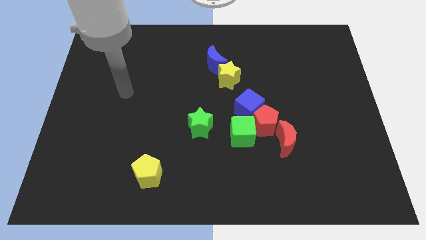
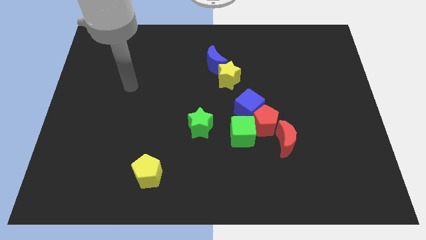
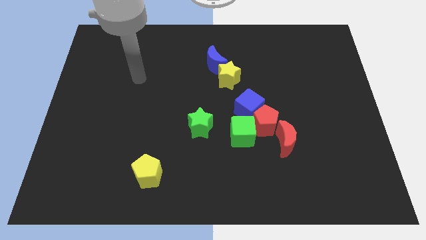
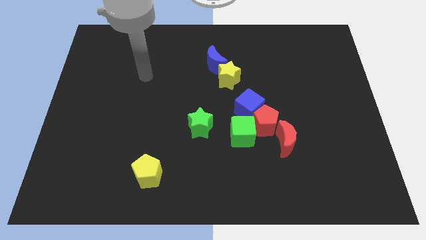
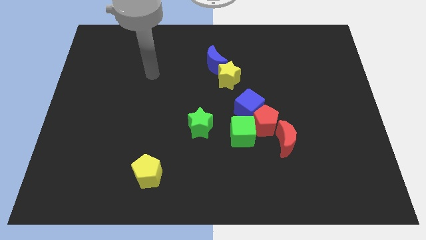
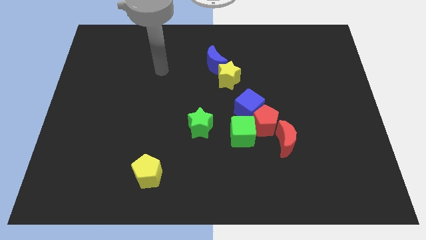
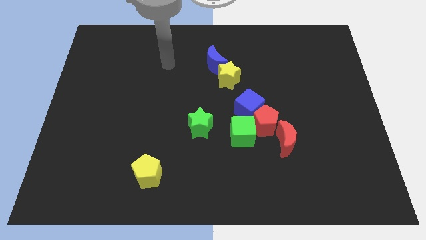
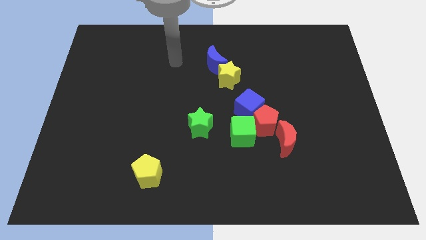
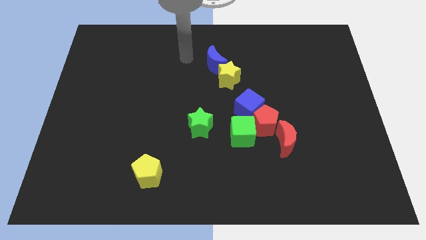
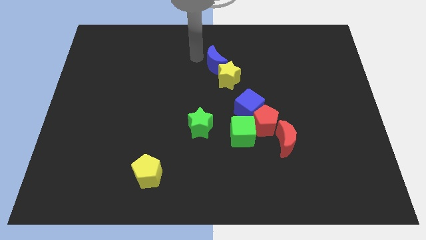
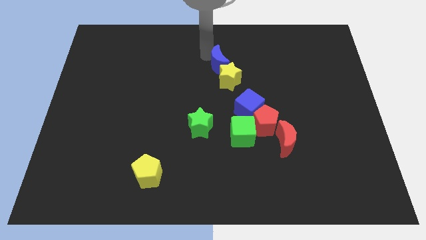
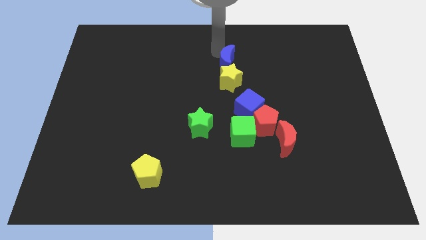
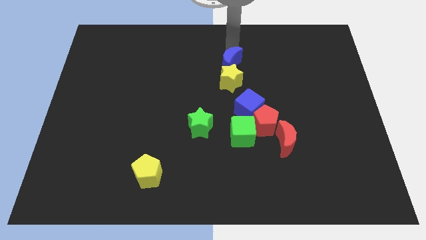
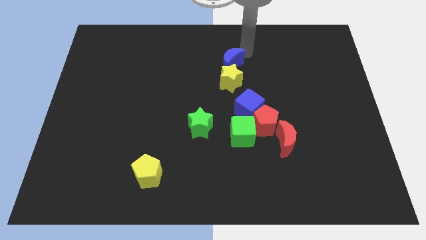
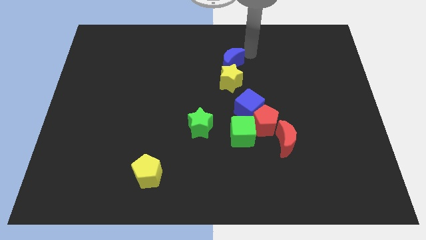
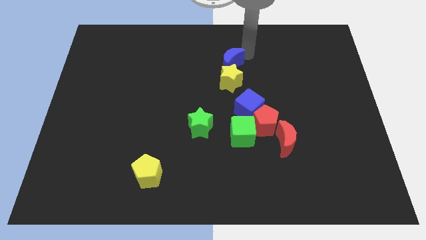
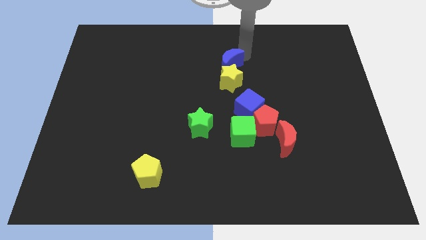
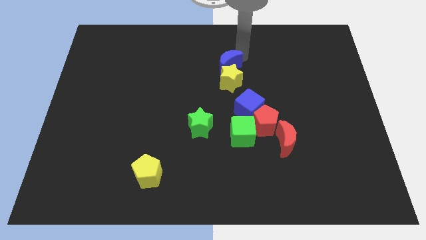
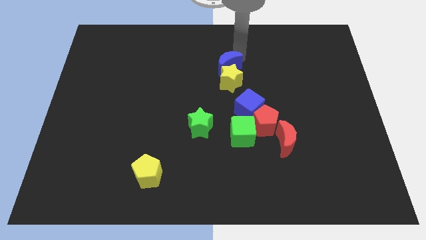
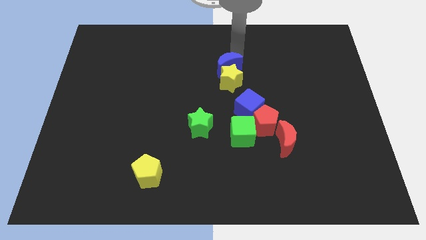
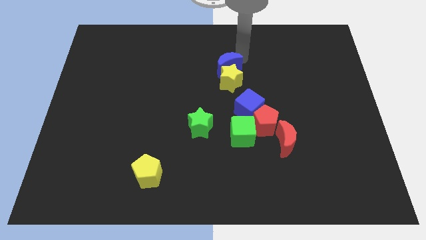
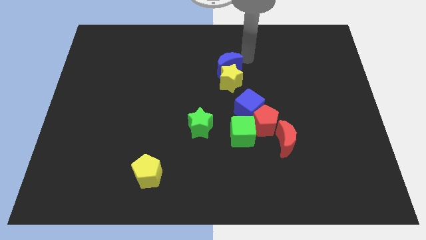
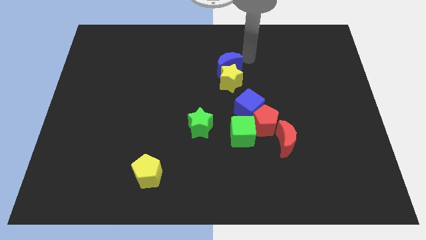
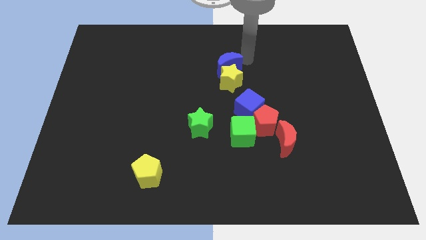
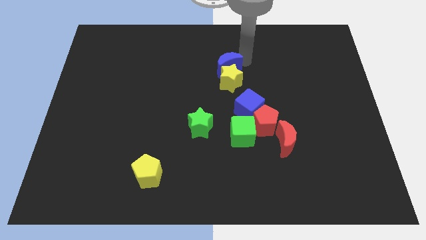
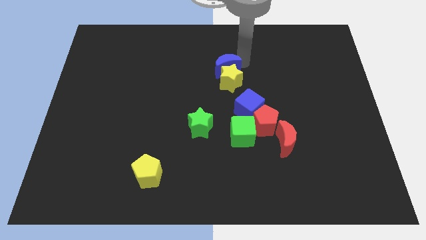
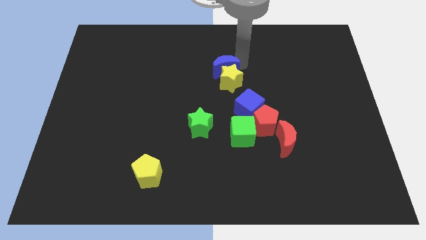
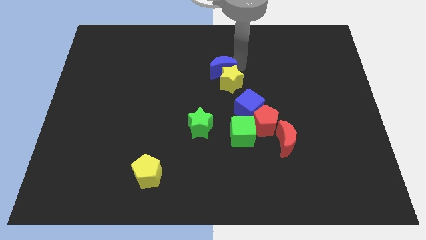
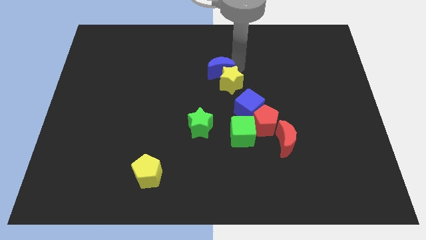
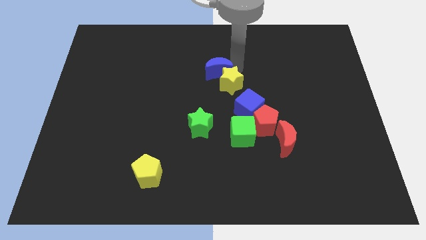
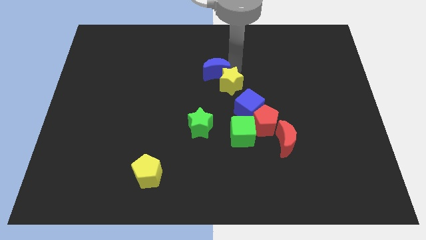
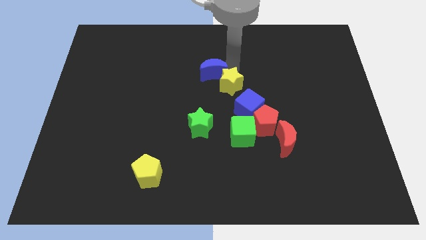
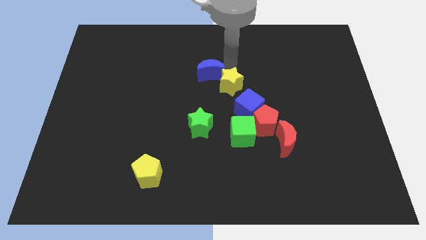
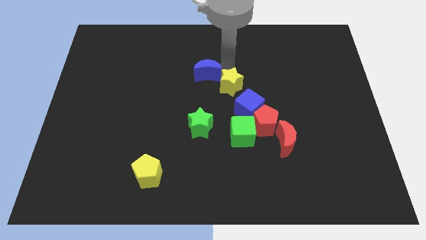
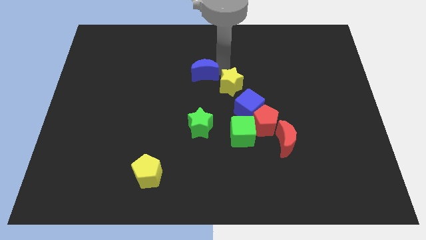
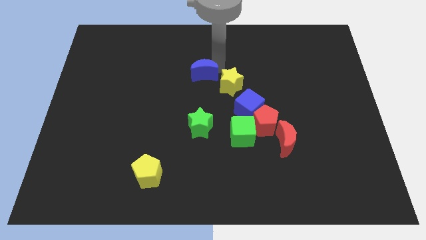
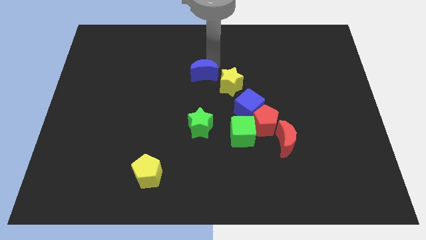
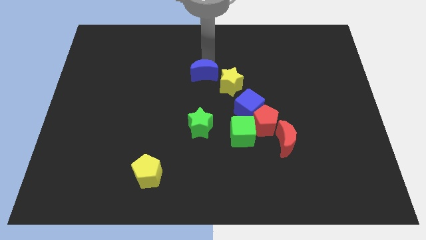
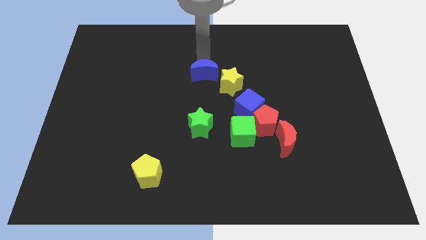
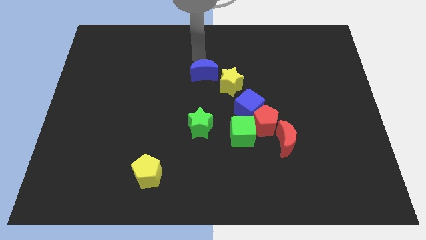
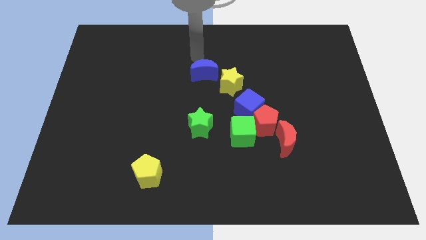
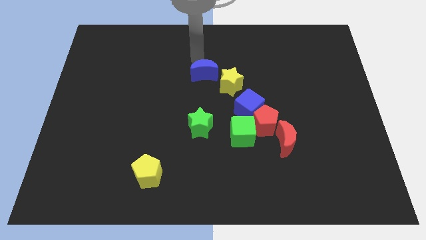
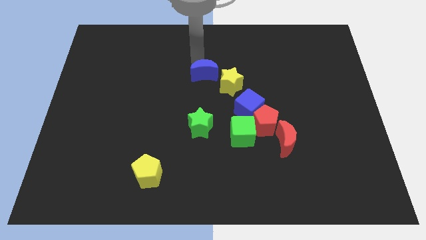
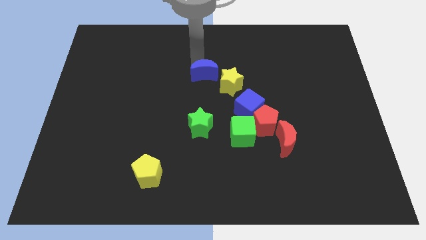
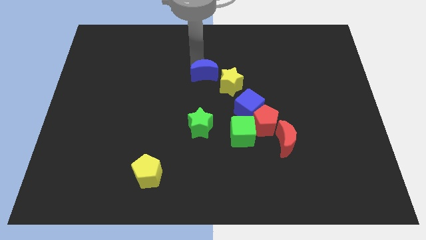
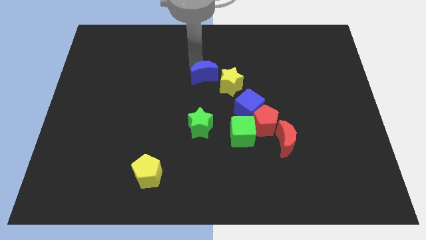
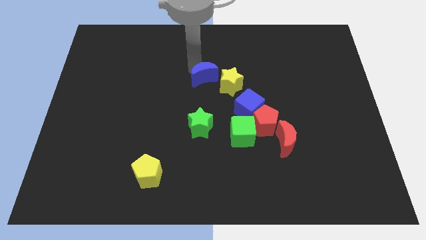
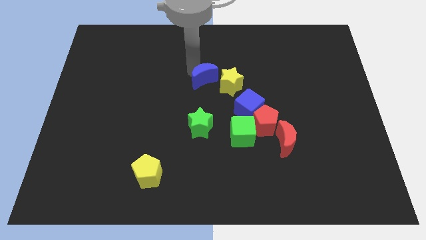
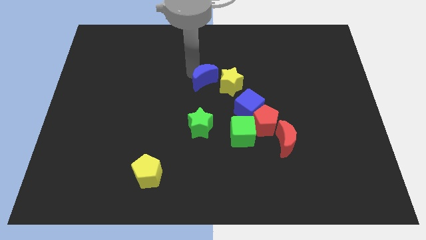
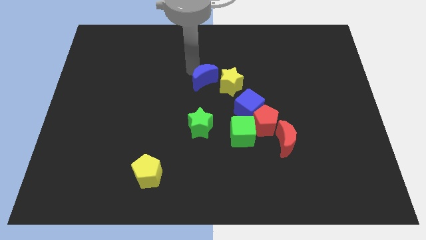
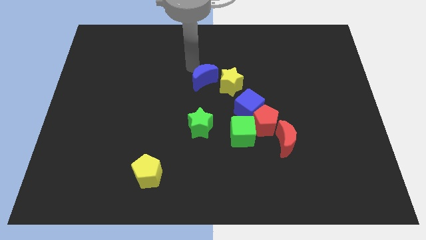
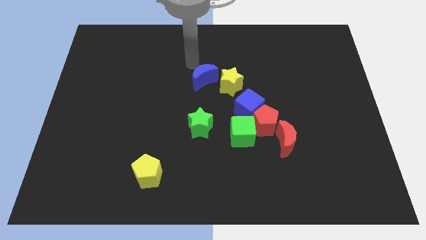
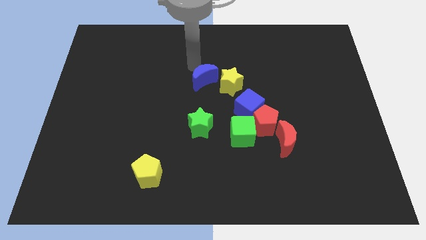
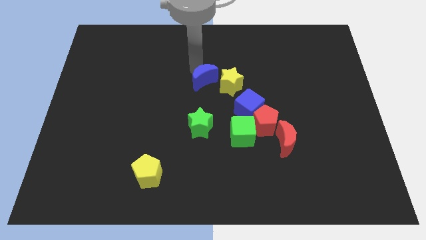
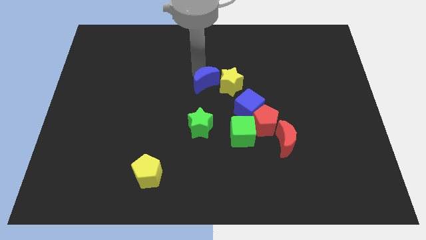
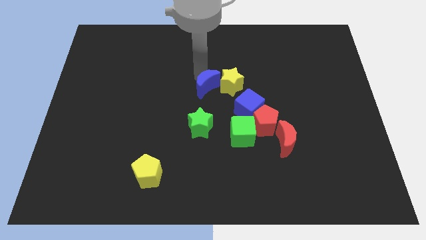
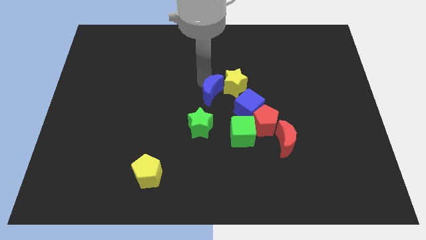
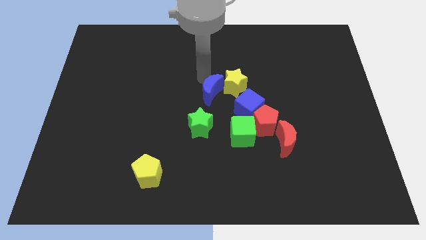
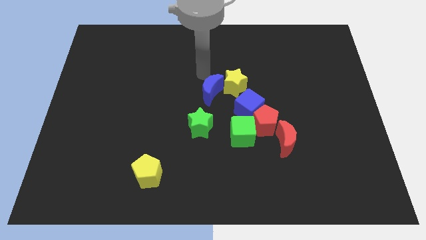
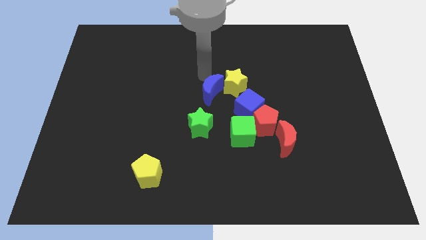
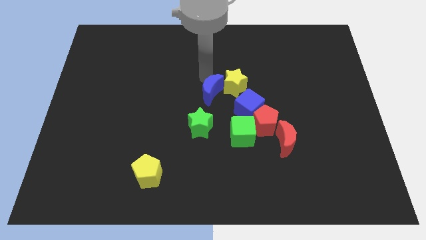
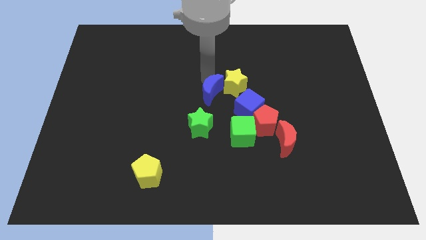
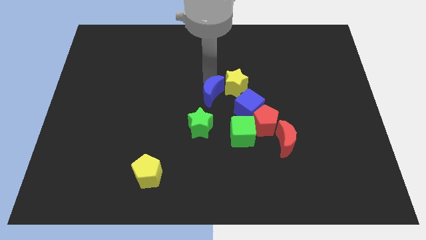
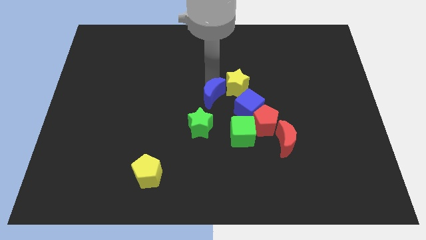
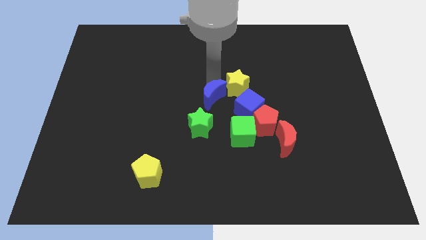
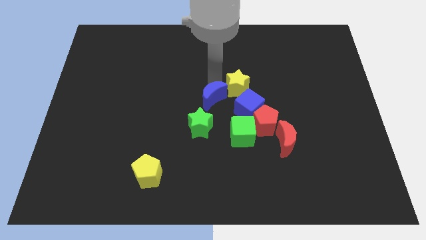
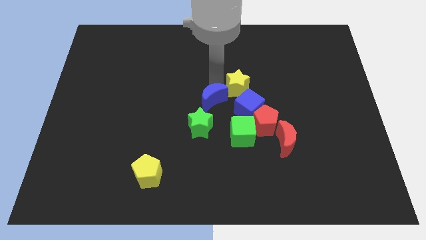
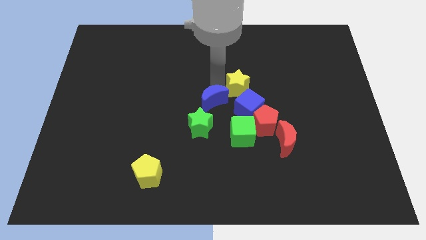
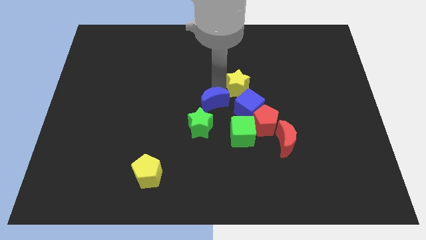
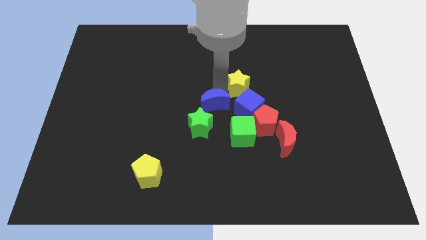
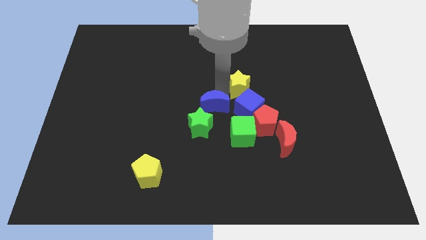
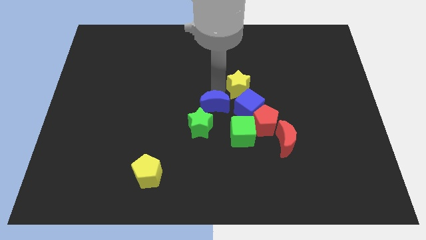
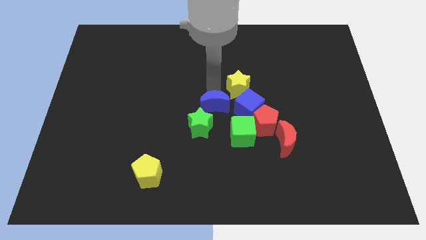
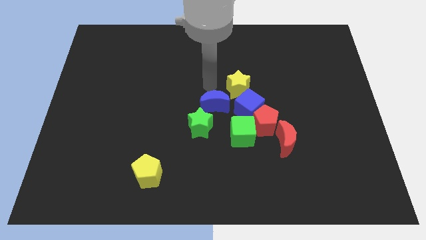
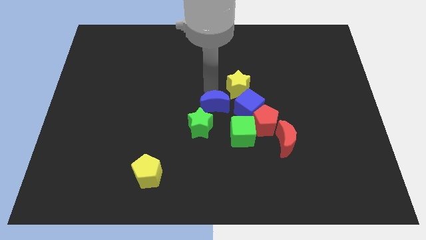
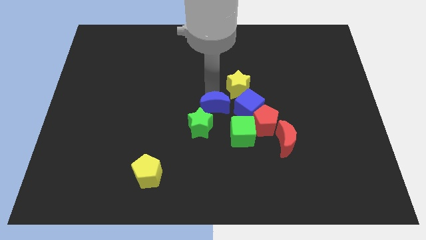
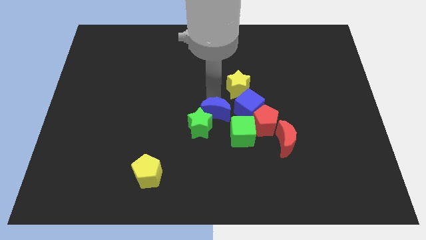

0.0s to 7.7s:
slide the blue moon to the left side of the red pentagon
